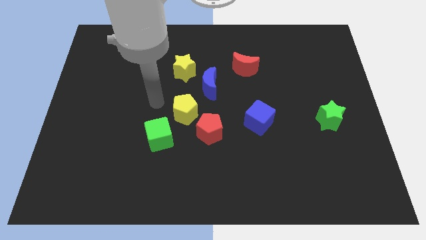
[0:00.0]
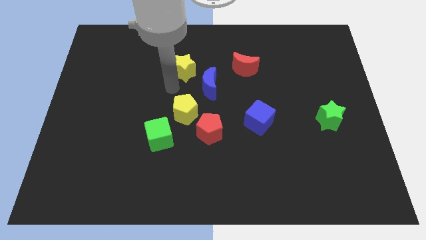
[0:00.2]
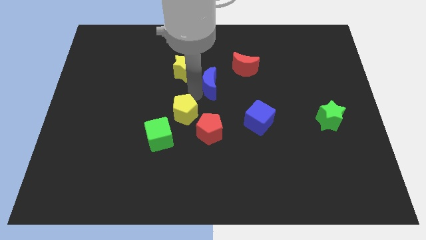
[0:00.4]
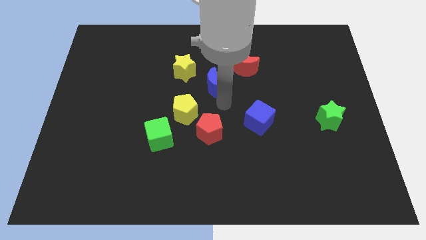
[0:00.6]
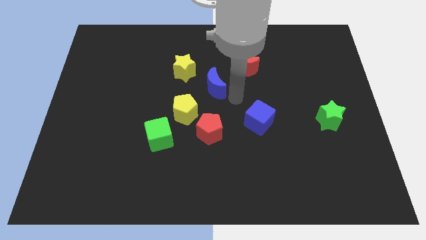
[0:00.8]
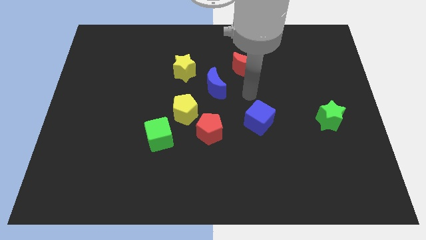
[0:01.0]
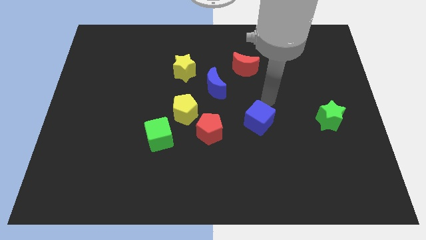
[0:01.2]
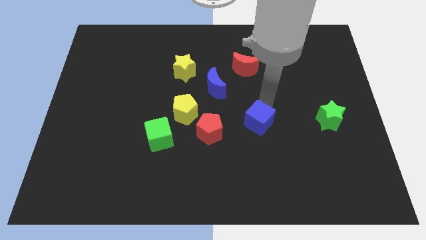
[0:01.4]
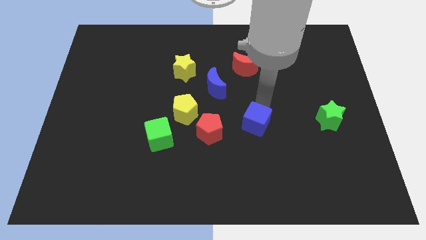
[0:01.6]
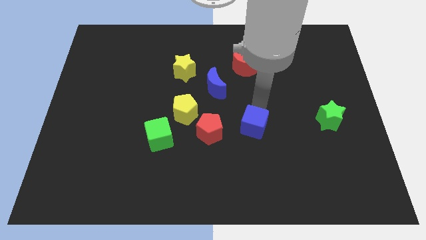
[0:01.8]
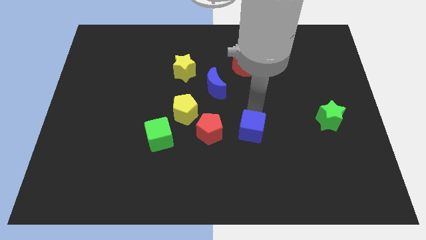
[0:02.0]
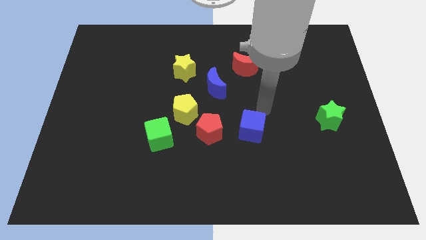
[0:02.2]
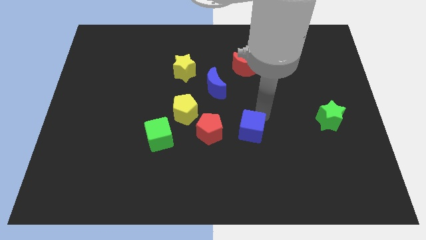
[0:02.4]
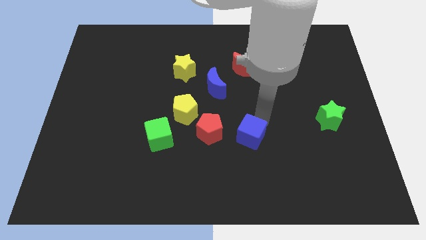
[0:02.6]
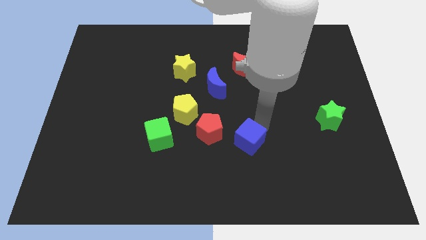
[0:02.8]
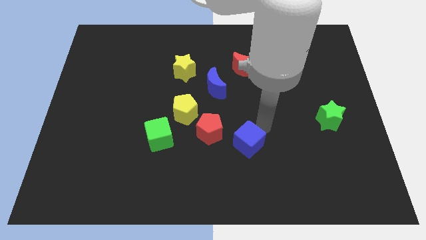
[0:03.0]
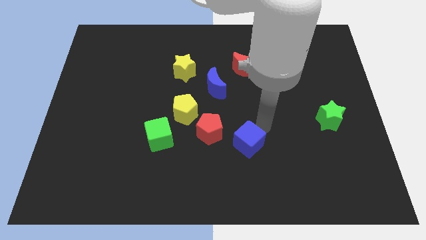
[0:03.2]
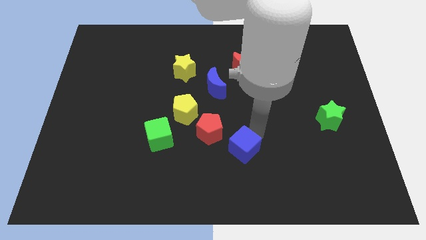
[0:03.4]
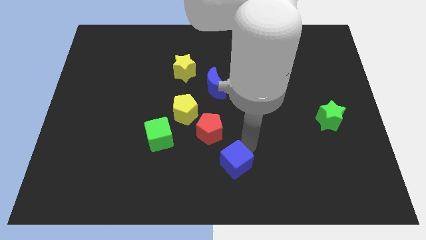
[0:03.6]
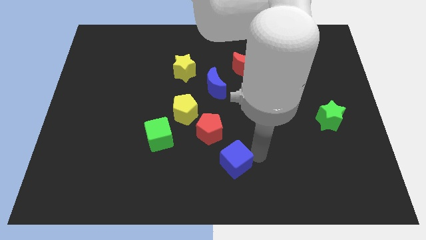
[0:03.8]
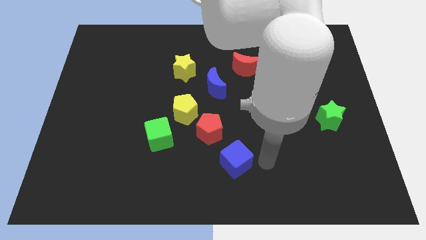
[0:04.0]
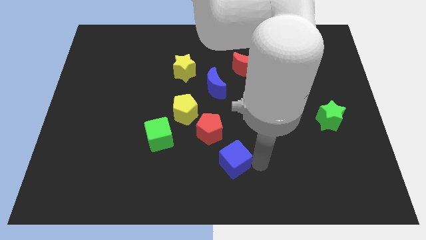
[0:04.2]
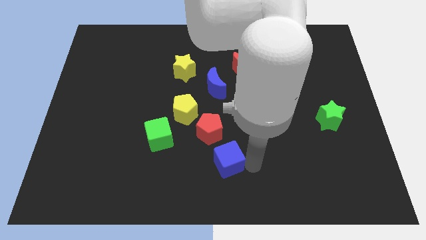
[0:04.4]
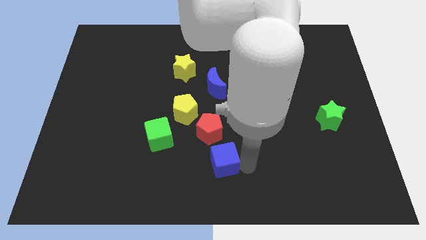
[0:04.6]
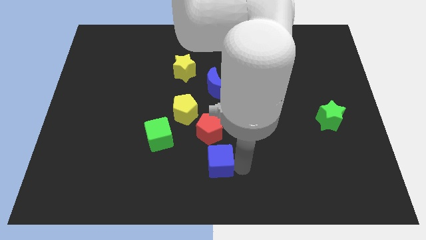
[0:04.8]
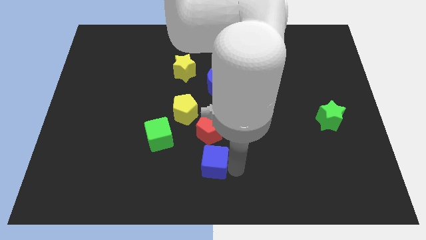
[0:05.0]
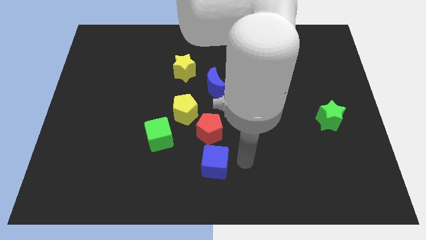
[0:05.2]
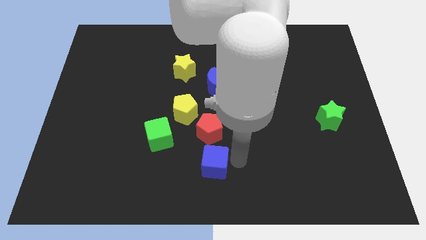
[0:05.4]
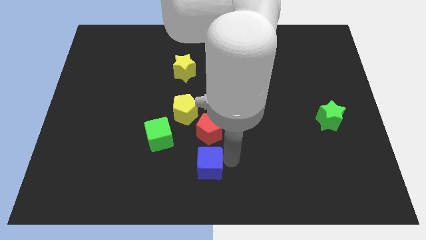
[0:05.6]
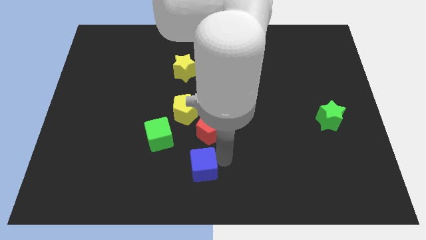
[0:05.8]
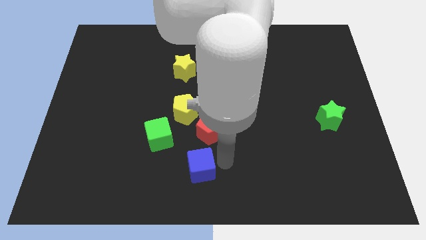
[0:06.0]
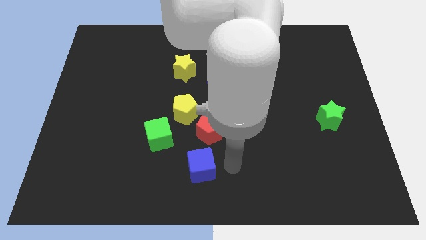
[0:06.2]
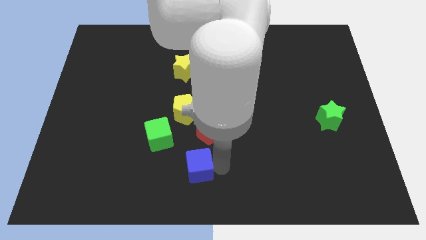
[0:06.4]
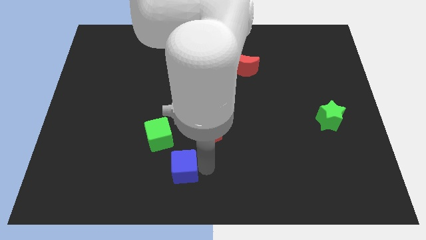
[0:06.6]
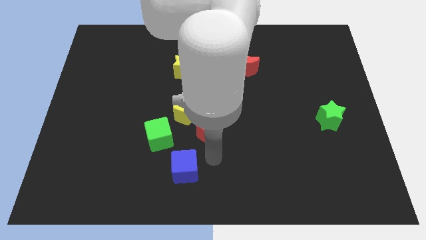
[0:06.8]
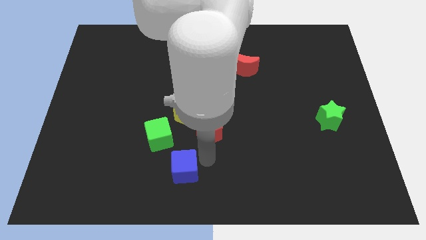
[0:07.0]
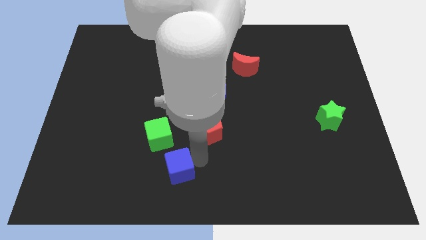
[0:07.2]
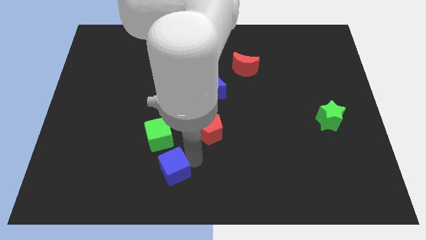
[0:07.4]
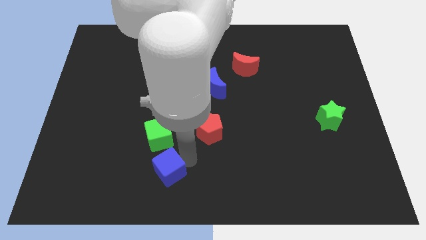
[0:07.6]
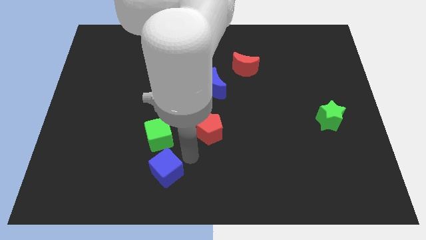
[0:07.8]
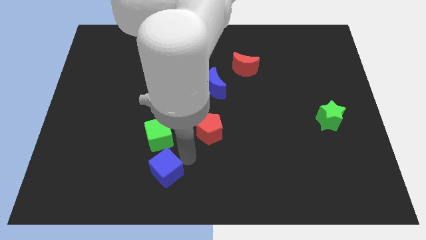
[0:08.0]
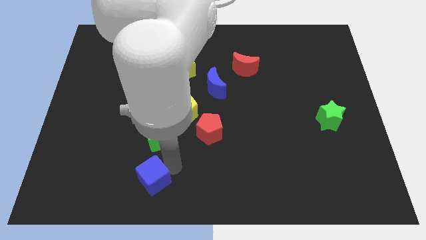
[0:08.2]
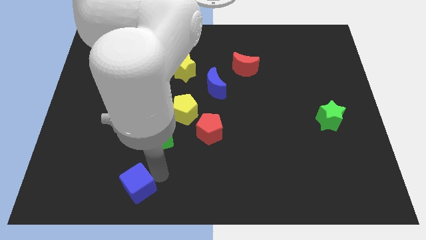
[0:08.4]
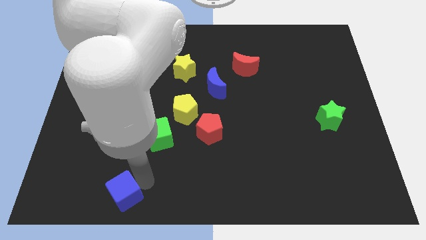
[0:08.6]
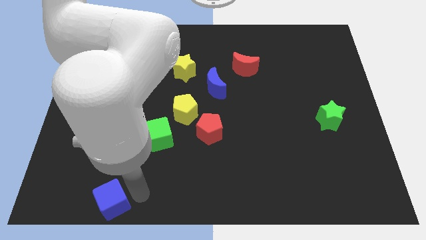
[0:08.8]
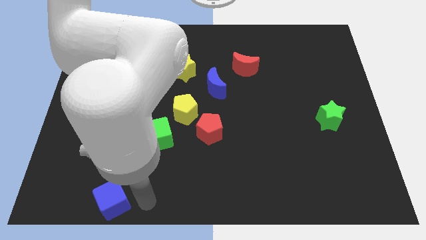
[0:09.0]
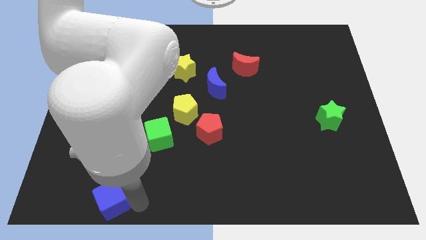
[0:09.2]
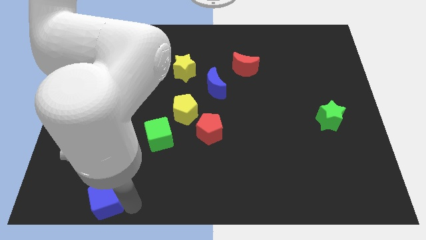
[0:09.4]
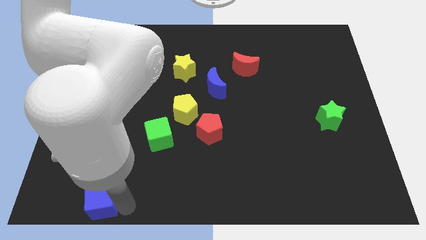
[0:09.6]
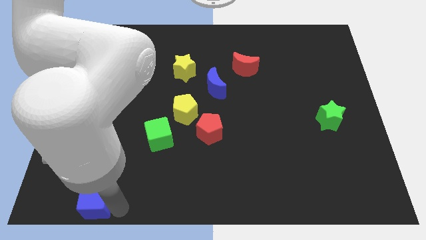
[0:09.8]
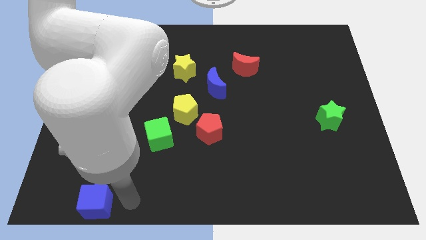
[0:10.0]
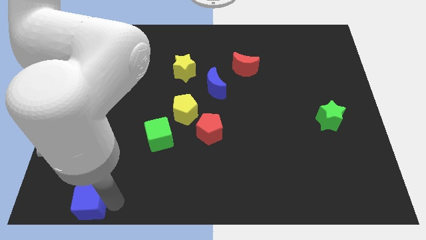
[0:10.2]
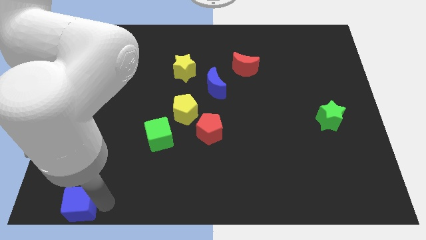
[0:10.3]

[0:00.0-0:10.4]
move the blue cube to the lower left corner
